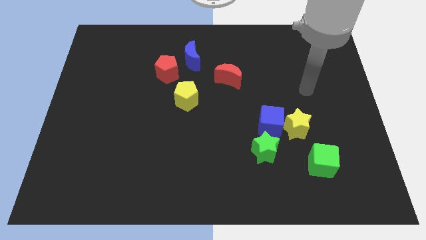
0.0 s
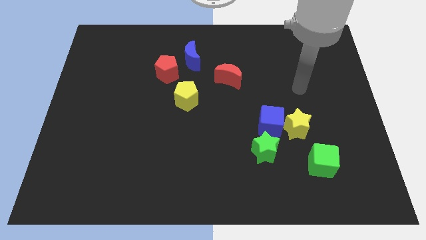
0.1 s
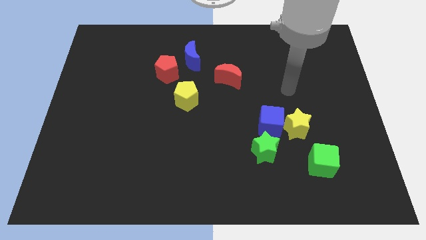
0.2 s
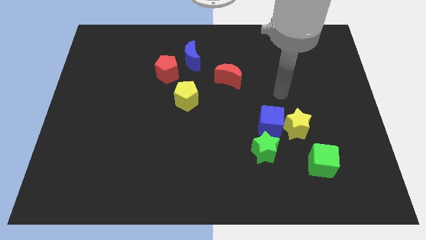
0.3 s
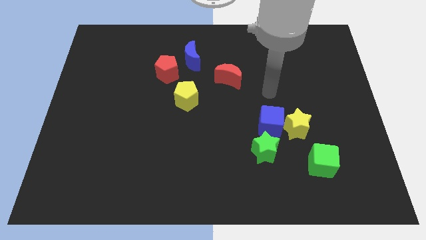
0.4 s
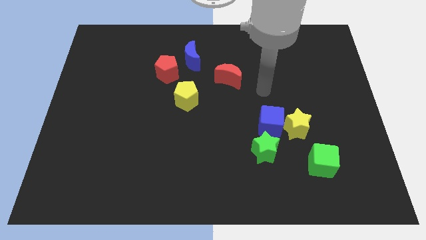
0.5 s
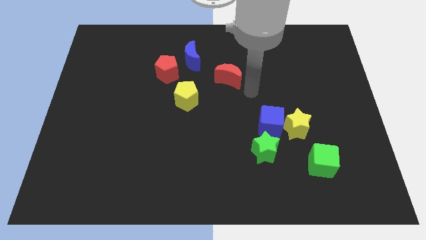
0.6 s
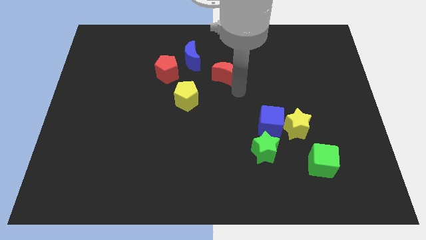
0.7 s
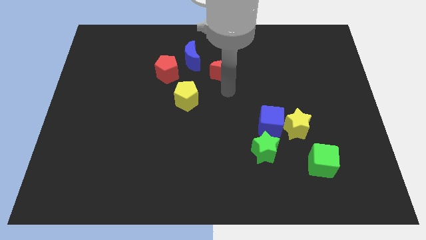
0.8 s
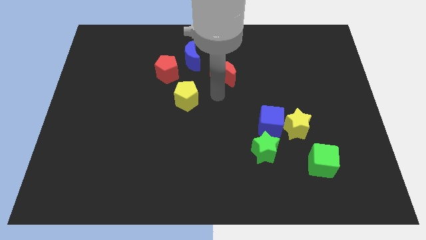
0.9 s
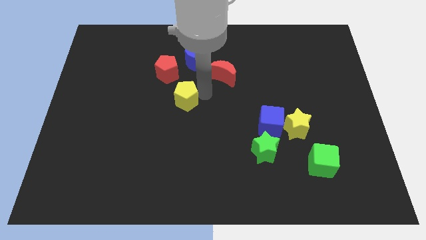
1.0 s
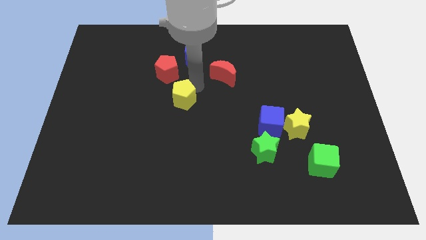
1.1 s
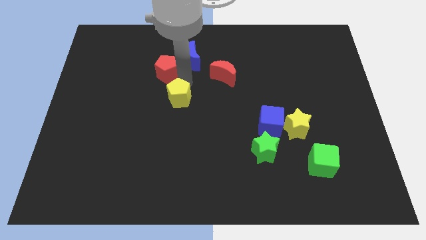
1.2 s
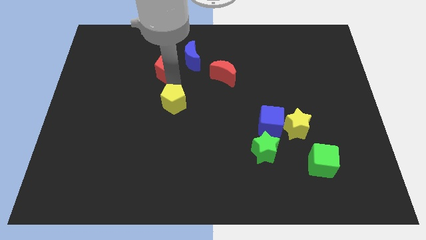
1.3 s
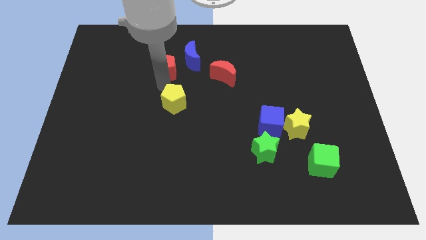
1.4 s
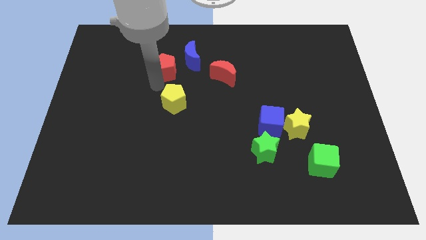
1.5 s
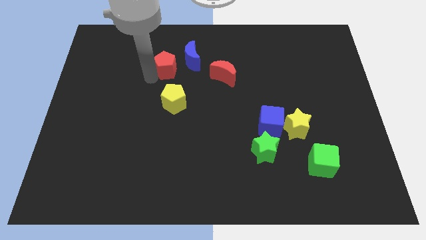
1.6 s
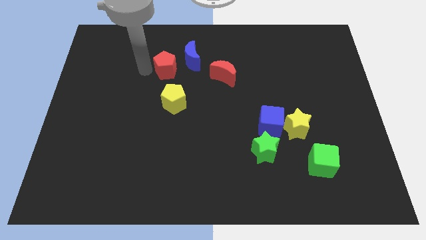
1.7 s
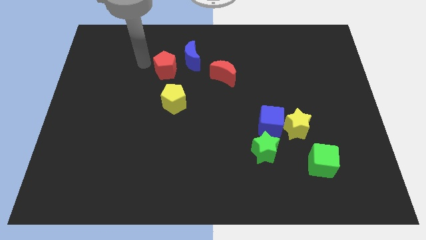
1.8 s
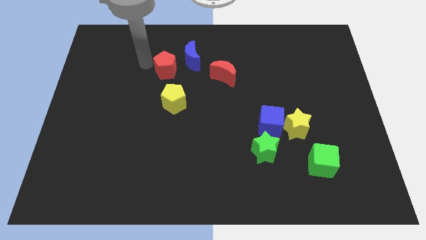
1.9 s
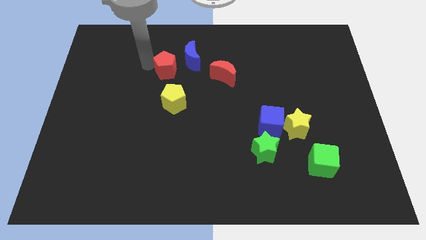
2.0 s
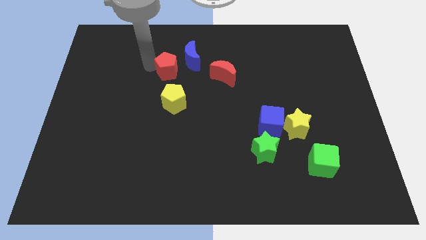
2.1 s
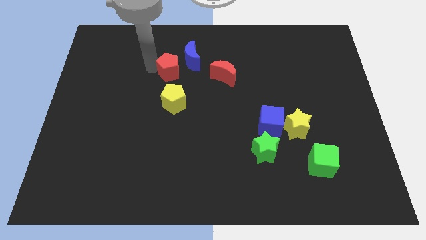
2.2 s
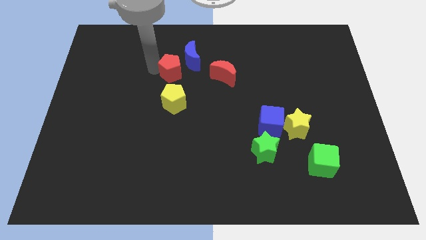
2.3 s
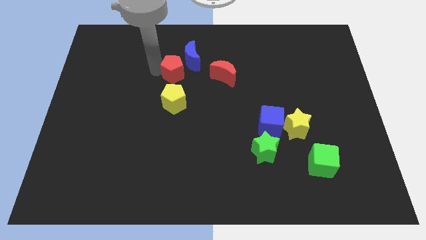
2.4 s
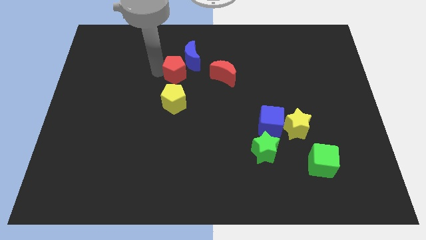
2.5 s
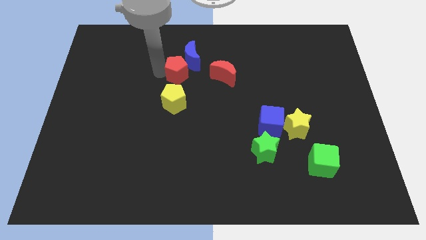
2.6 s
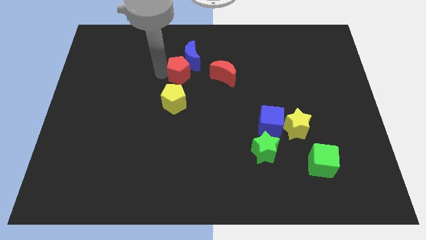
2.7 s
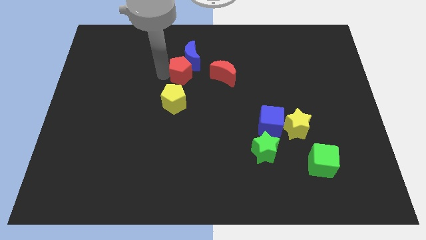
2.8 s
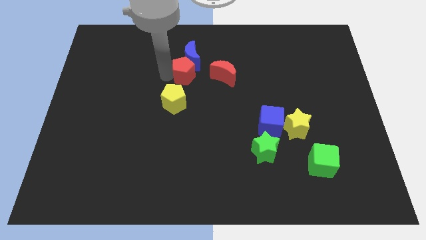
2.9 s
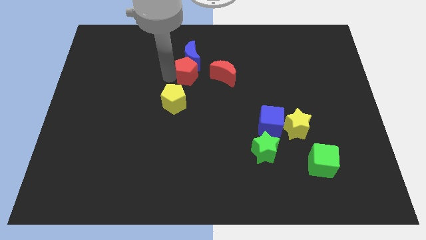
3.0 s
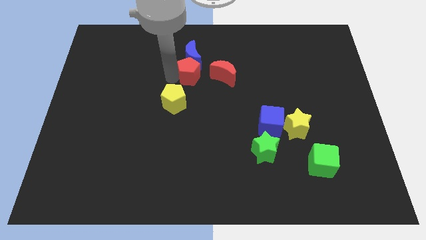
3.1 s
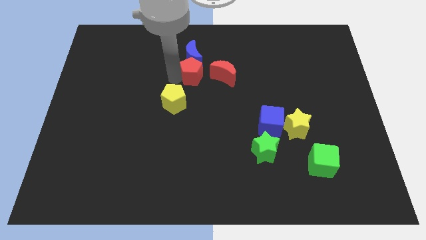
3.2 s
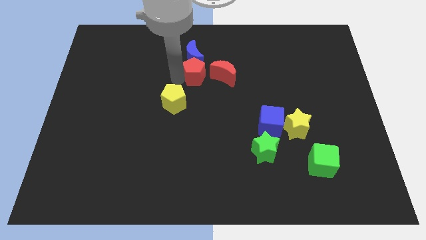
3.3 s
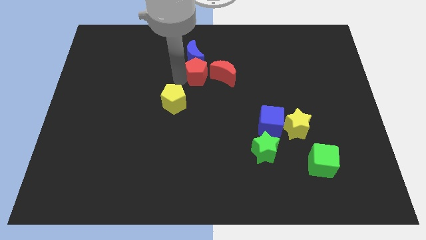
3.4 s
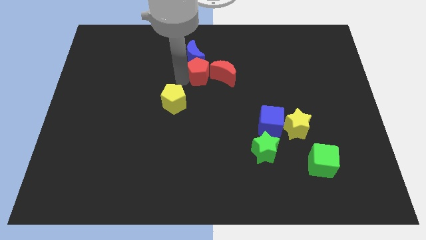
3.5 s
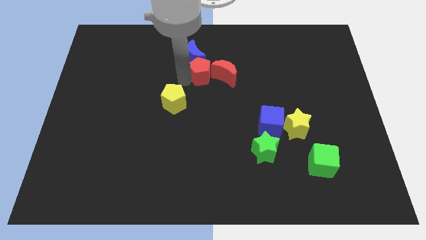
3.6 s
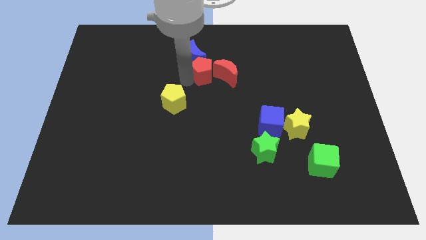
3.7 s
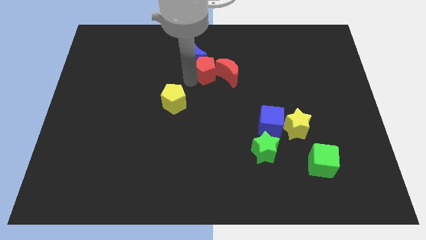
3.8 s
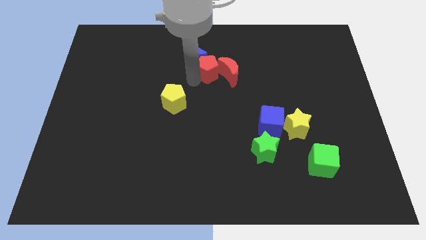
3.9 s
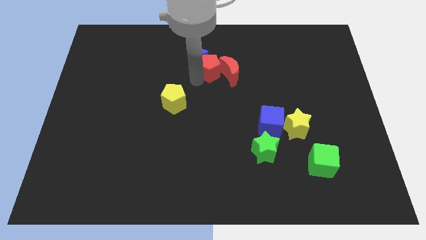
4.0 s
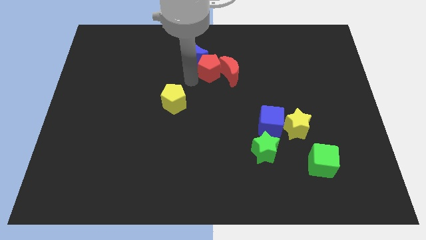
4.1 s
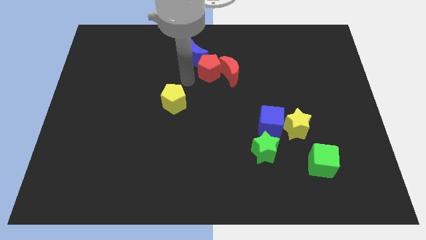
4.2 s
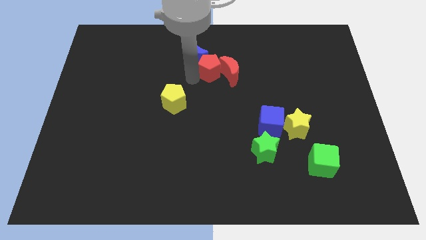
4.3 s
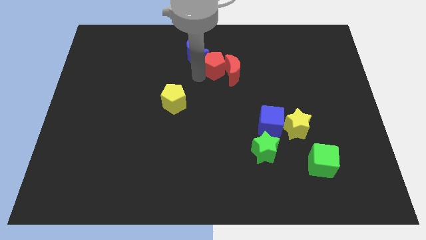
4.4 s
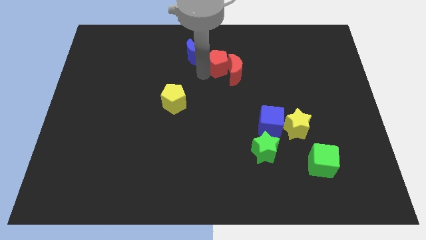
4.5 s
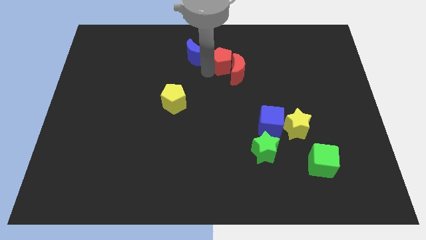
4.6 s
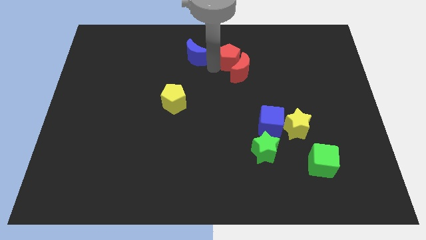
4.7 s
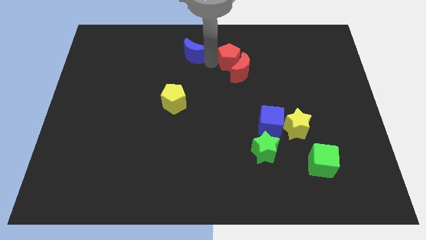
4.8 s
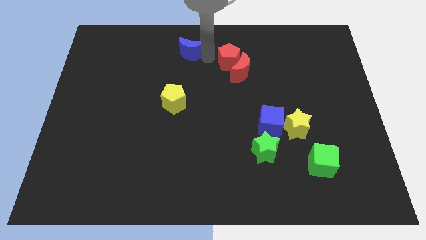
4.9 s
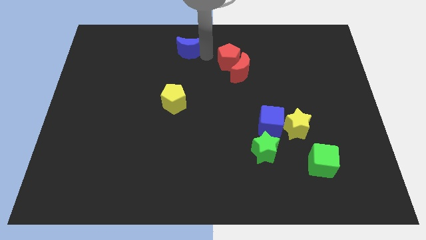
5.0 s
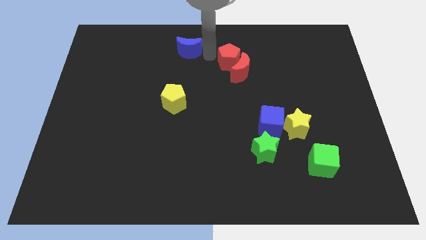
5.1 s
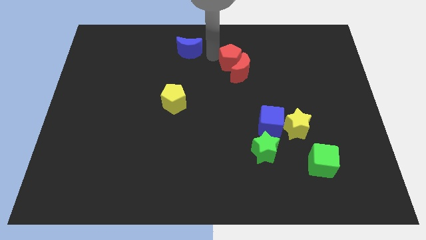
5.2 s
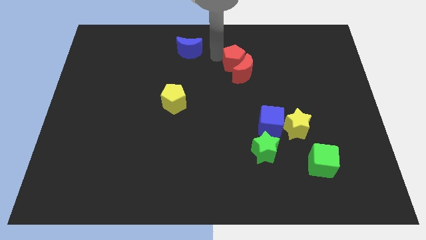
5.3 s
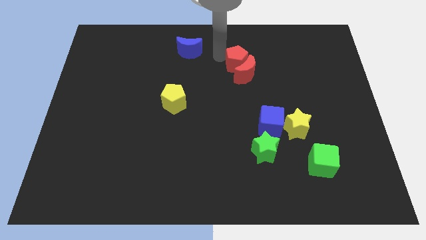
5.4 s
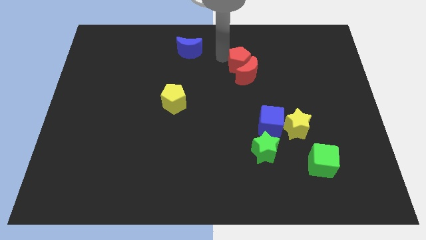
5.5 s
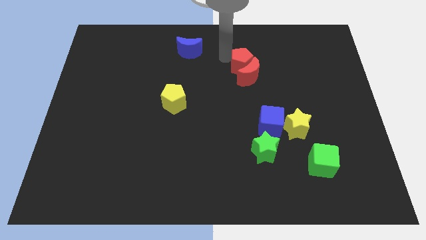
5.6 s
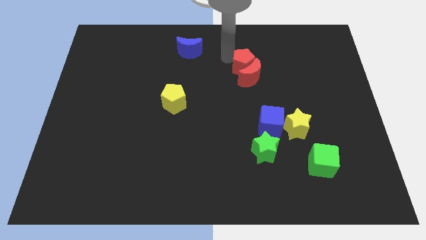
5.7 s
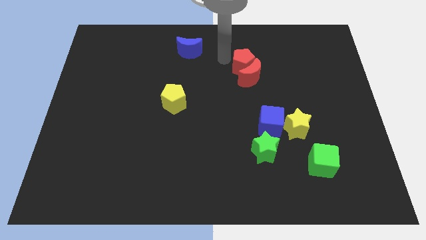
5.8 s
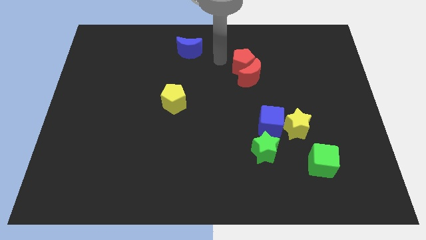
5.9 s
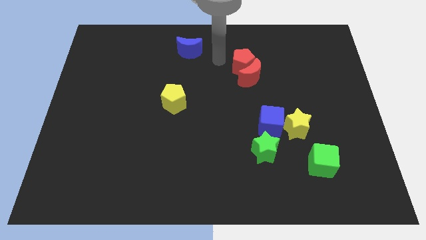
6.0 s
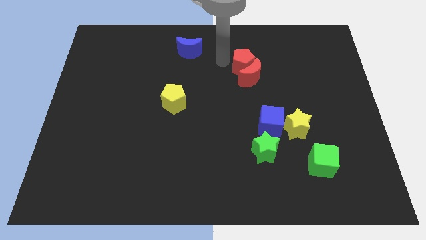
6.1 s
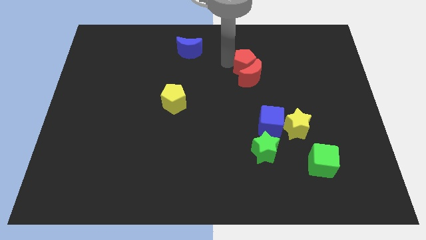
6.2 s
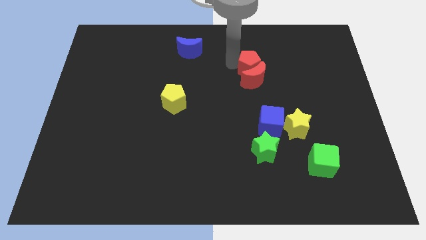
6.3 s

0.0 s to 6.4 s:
move the red pentagon right

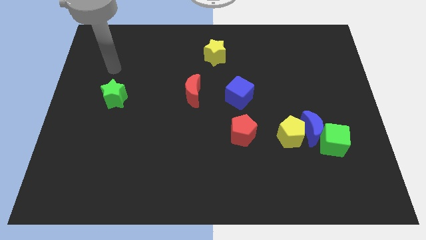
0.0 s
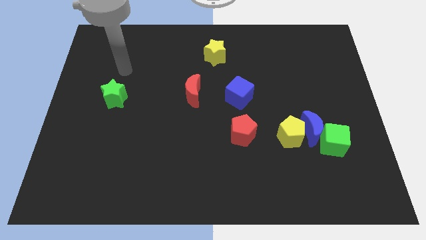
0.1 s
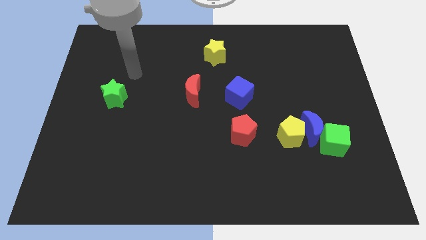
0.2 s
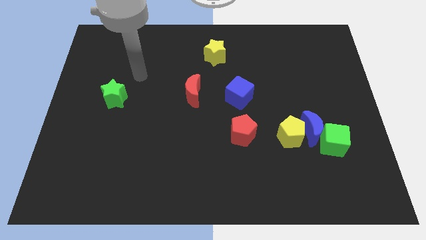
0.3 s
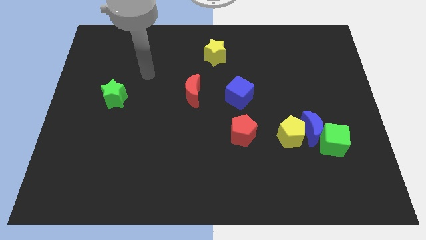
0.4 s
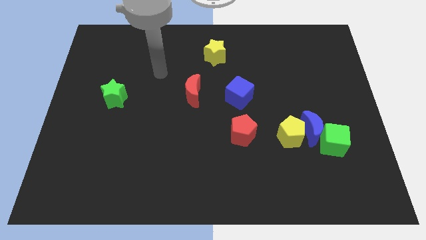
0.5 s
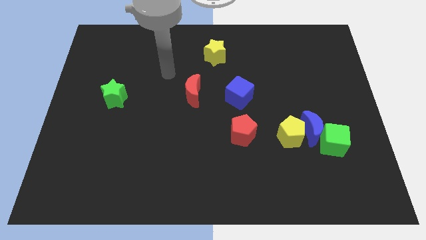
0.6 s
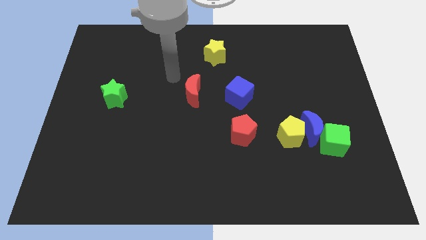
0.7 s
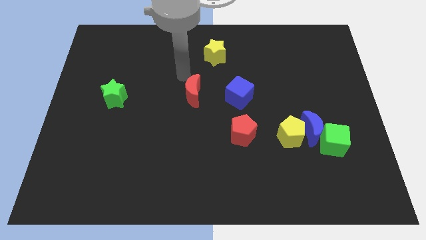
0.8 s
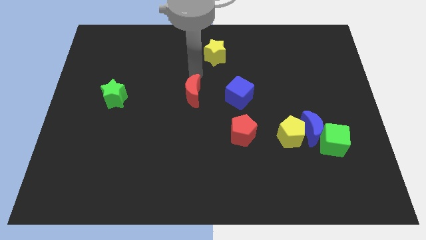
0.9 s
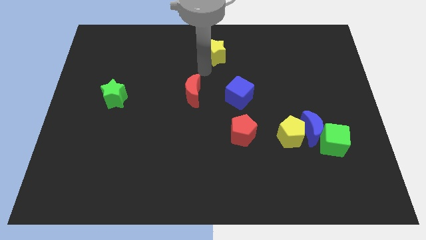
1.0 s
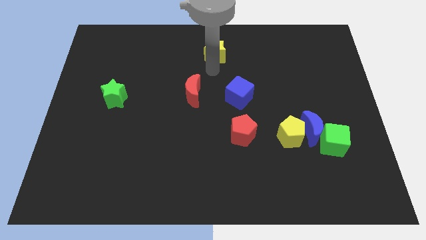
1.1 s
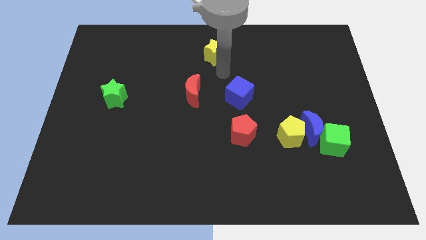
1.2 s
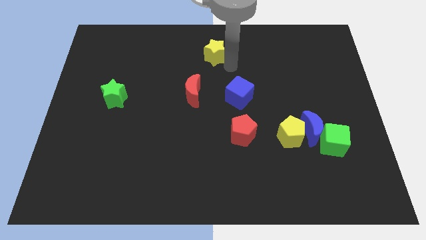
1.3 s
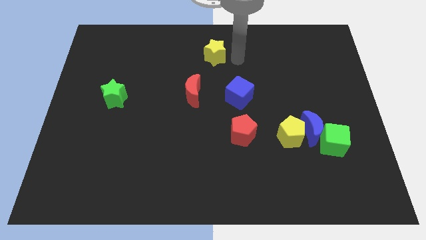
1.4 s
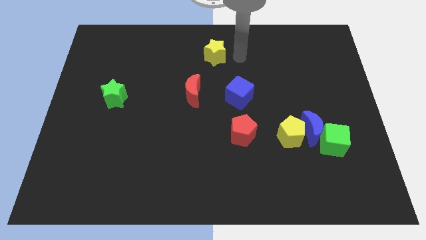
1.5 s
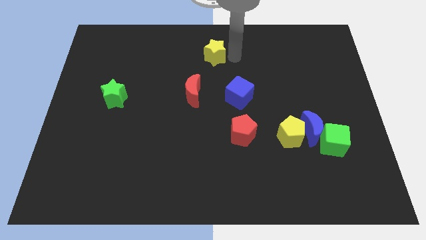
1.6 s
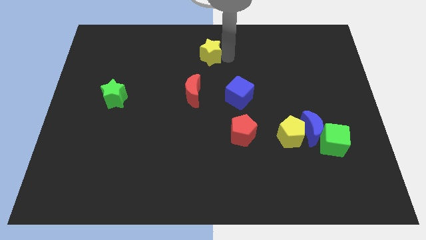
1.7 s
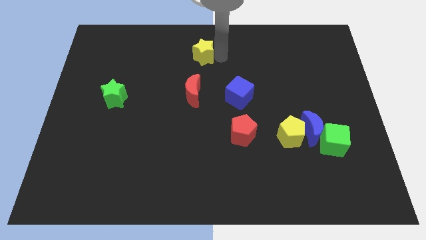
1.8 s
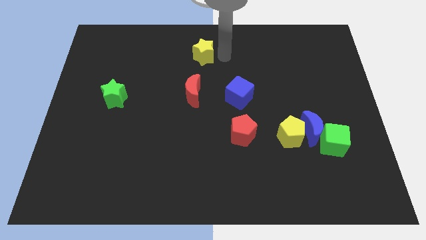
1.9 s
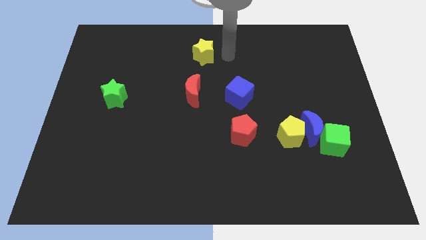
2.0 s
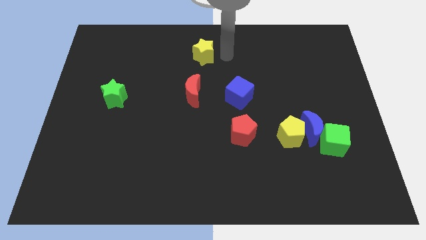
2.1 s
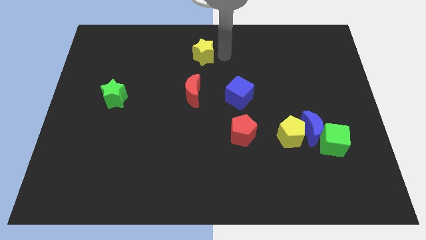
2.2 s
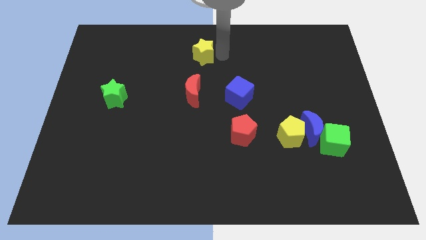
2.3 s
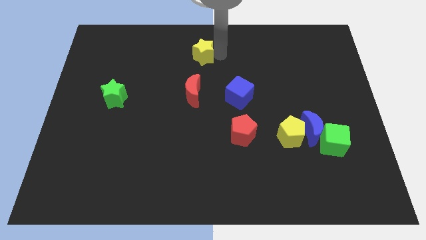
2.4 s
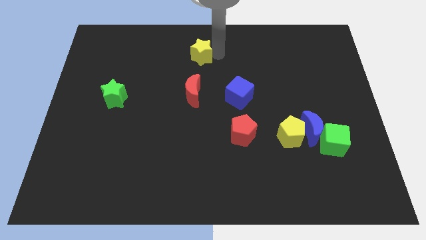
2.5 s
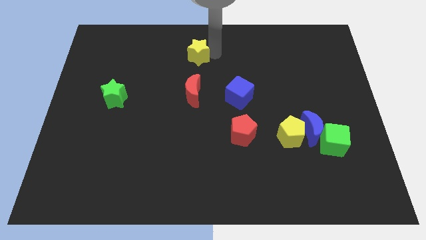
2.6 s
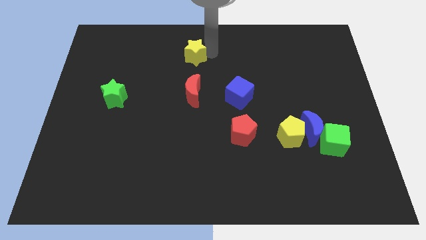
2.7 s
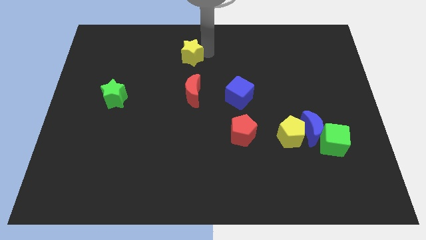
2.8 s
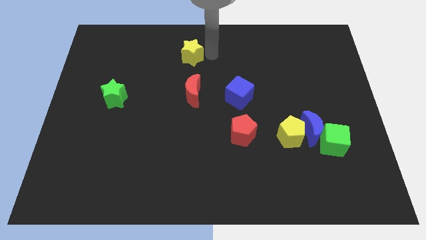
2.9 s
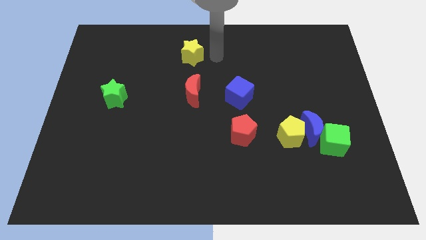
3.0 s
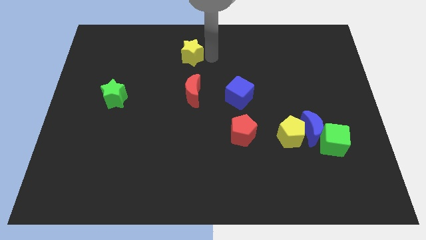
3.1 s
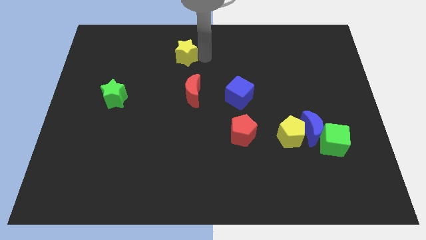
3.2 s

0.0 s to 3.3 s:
push the yellow star a little bit to the left
